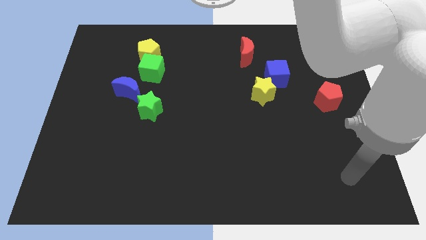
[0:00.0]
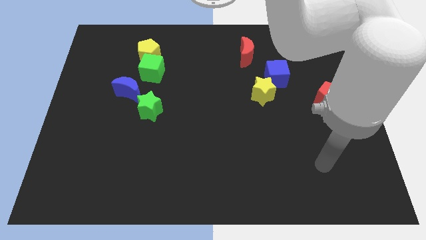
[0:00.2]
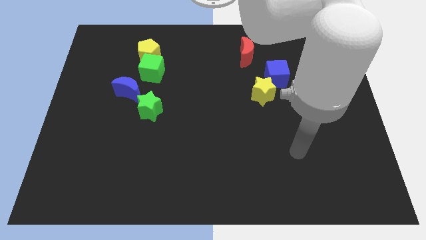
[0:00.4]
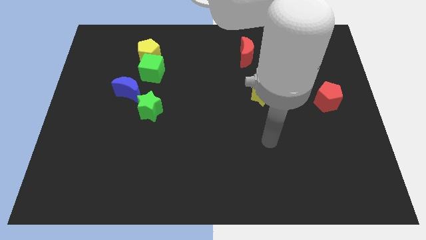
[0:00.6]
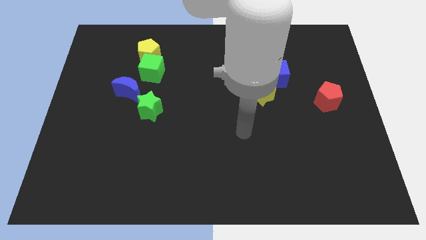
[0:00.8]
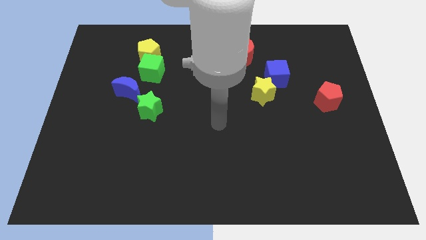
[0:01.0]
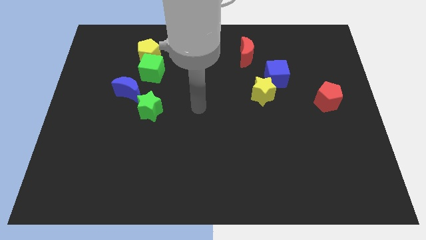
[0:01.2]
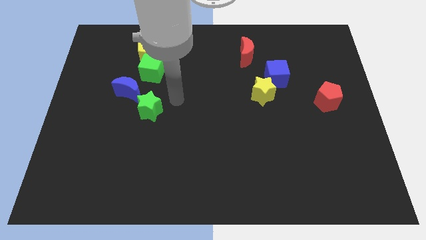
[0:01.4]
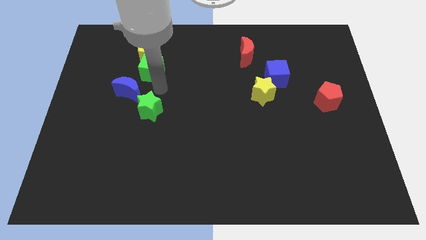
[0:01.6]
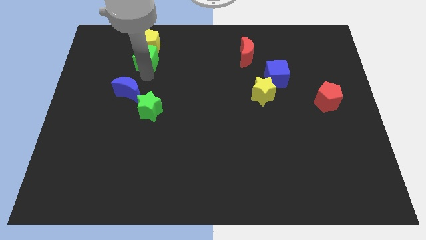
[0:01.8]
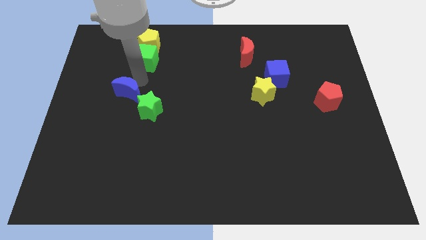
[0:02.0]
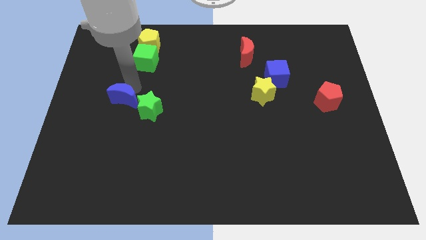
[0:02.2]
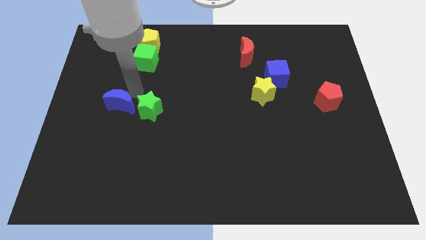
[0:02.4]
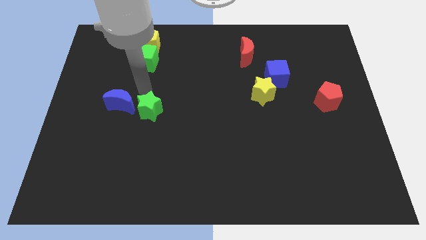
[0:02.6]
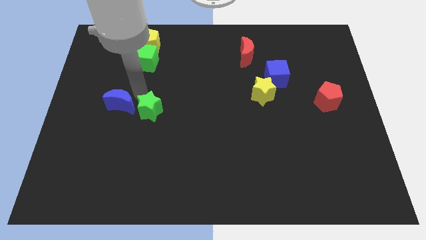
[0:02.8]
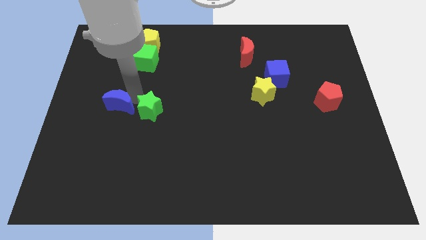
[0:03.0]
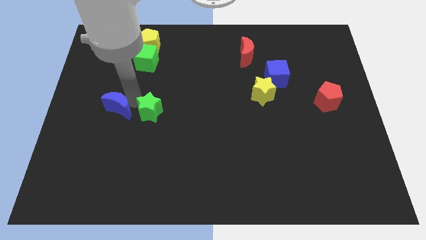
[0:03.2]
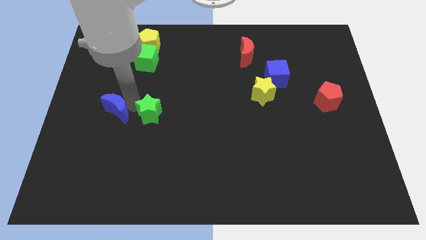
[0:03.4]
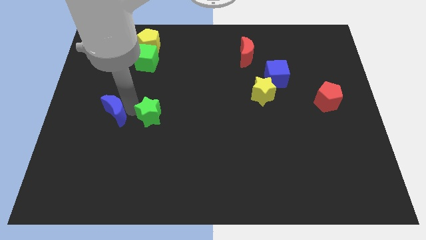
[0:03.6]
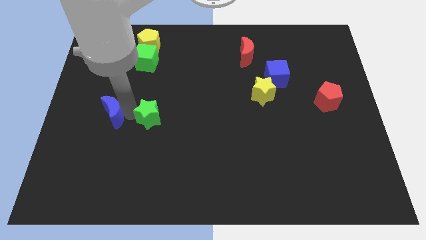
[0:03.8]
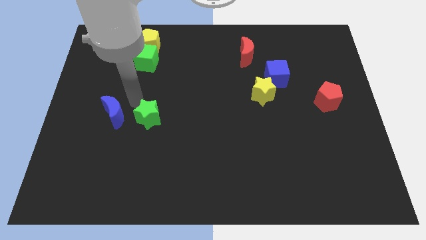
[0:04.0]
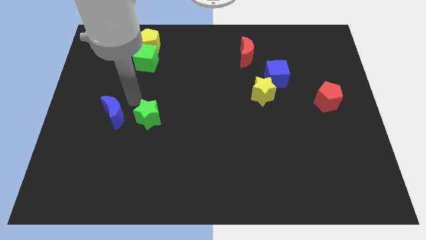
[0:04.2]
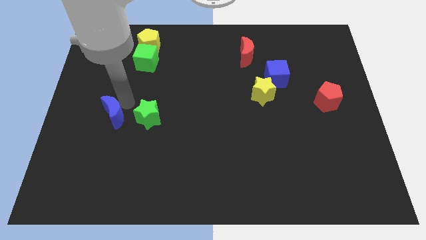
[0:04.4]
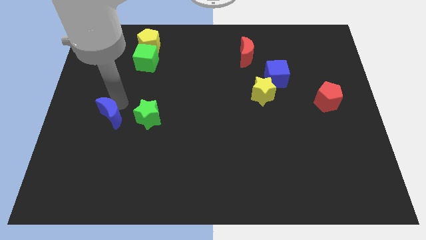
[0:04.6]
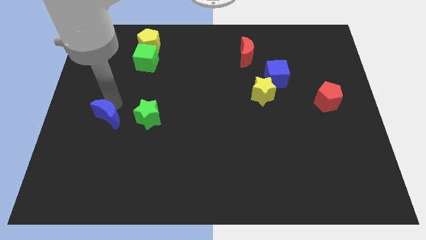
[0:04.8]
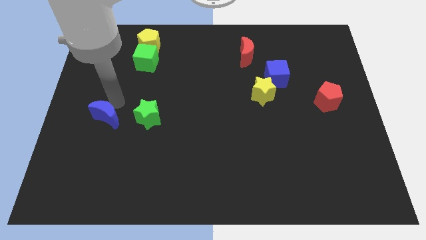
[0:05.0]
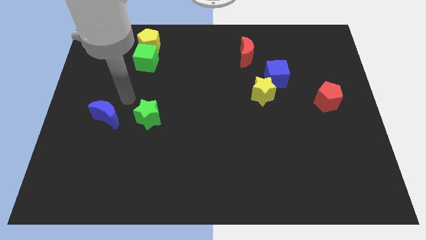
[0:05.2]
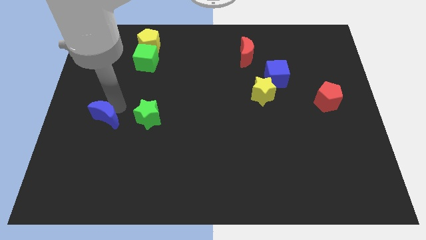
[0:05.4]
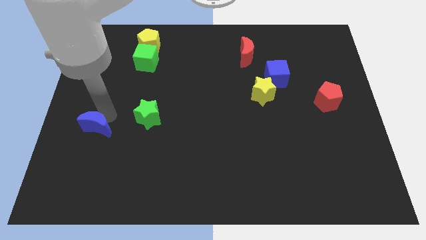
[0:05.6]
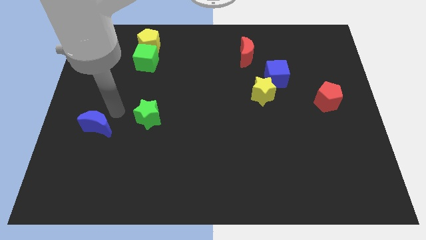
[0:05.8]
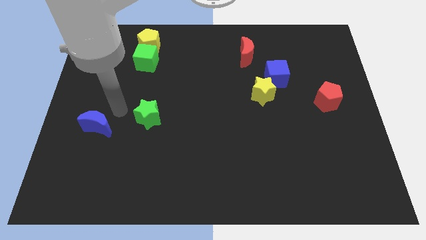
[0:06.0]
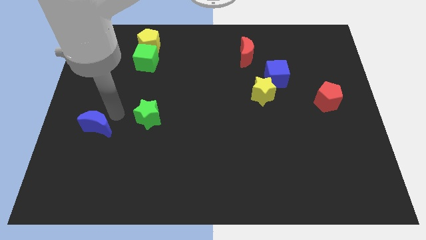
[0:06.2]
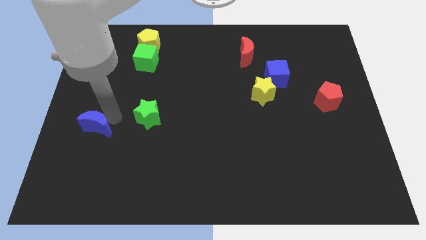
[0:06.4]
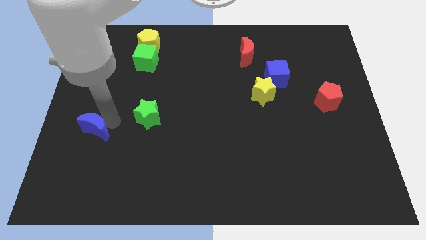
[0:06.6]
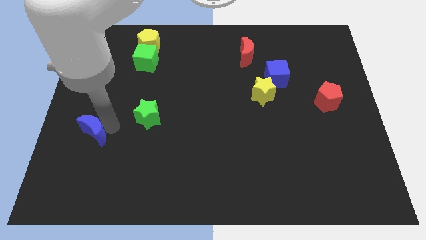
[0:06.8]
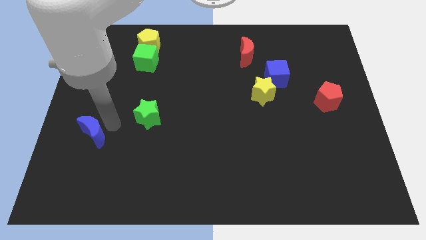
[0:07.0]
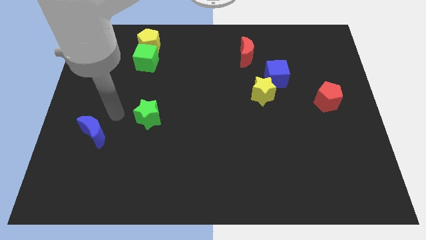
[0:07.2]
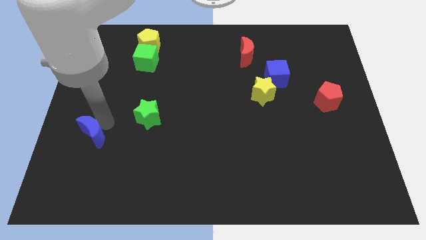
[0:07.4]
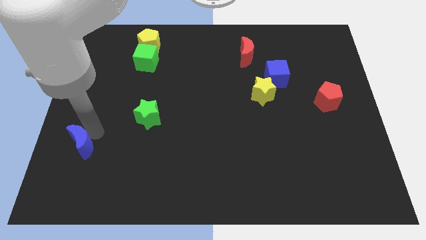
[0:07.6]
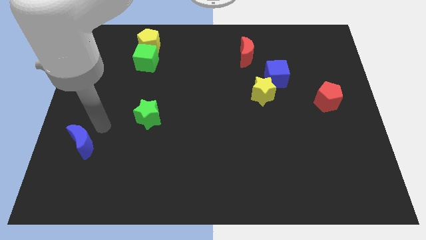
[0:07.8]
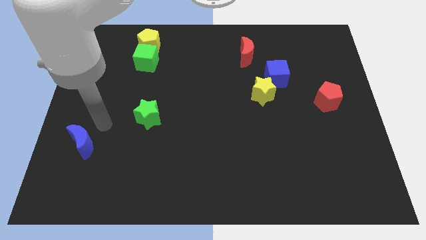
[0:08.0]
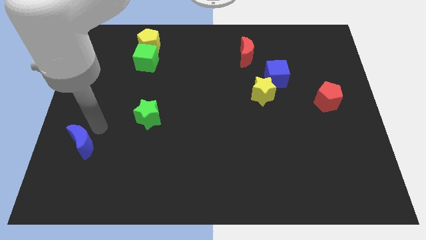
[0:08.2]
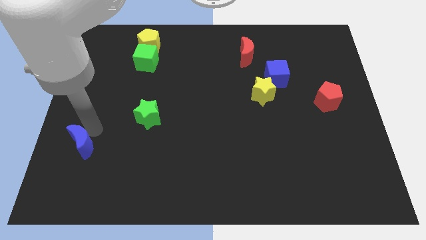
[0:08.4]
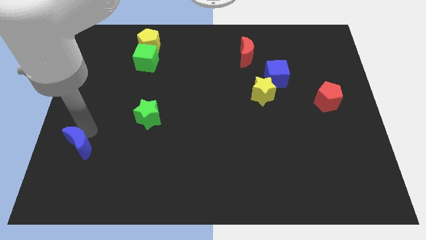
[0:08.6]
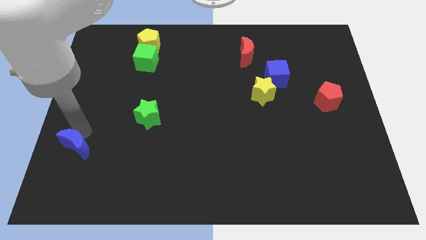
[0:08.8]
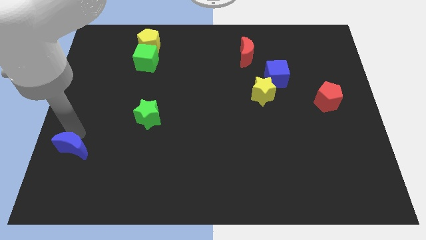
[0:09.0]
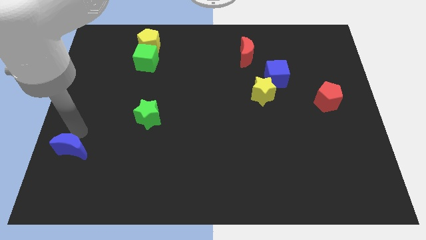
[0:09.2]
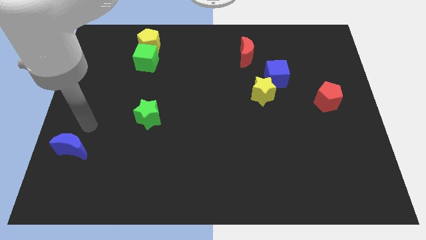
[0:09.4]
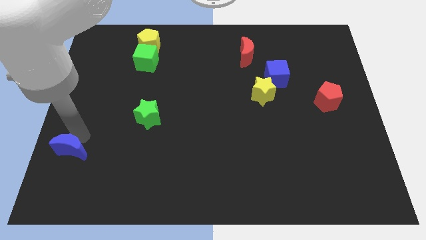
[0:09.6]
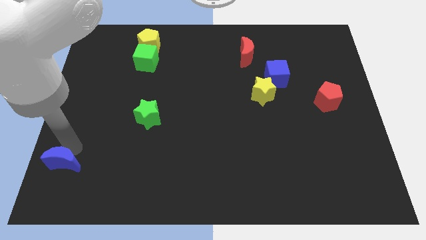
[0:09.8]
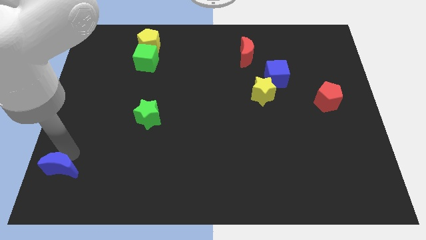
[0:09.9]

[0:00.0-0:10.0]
move the blue moon to the bottom left corner

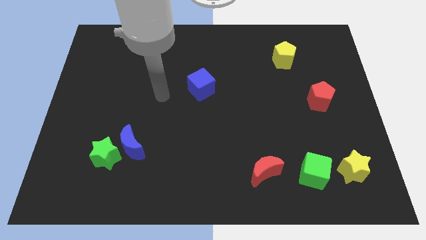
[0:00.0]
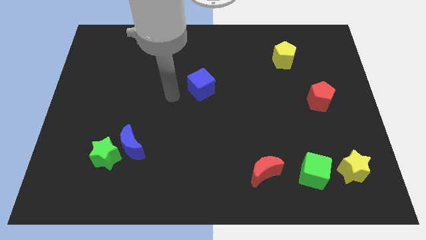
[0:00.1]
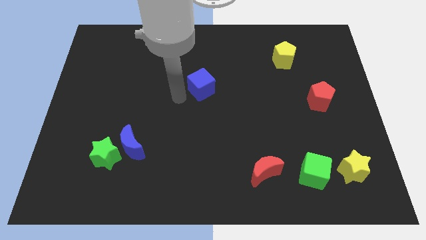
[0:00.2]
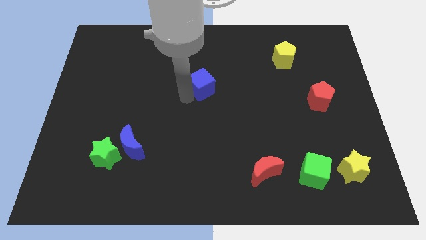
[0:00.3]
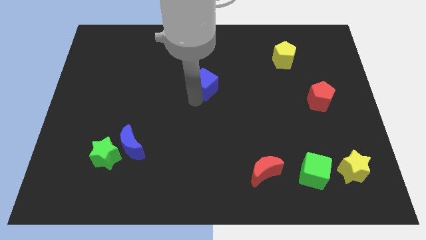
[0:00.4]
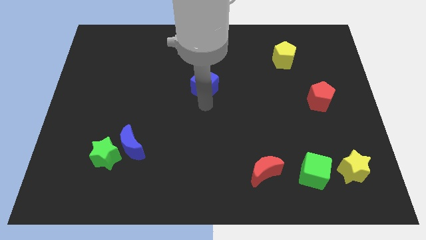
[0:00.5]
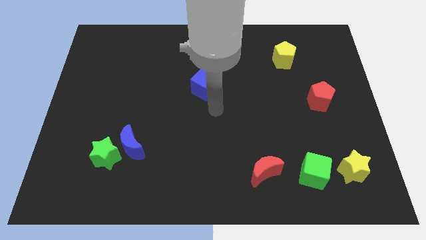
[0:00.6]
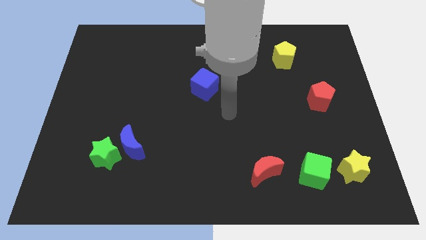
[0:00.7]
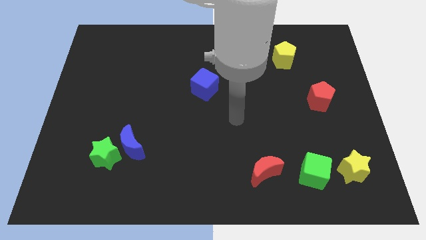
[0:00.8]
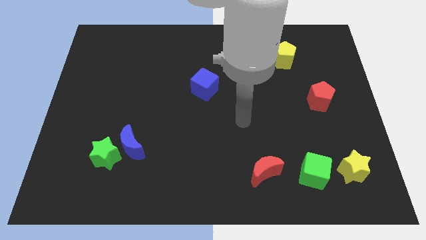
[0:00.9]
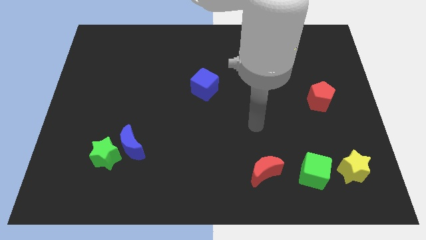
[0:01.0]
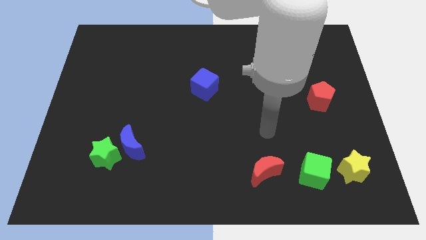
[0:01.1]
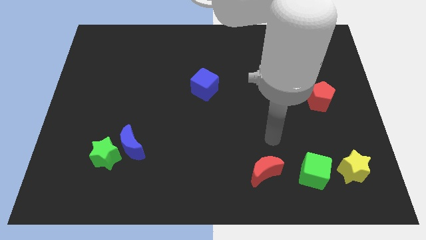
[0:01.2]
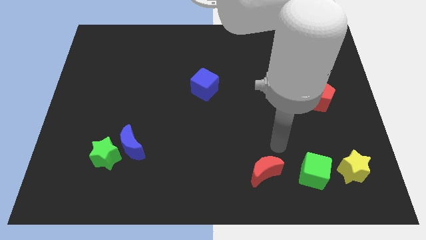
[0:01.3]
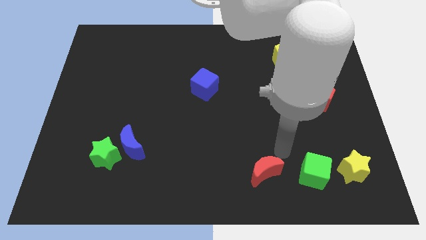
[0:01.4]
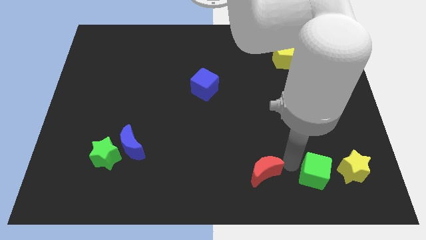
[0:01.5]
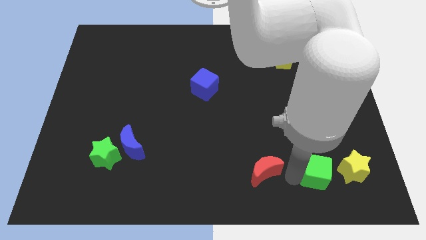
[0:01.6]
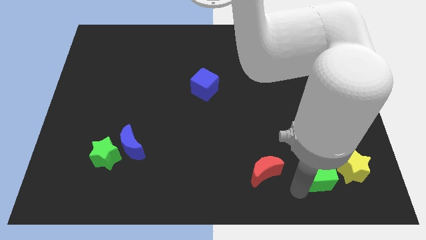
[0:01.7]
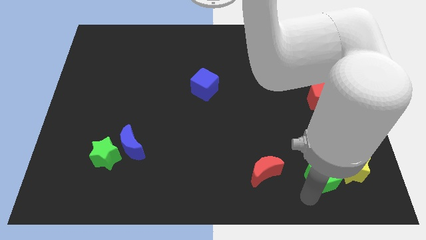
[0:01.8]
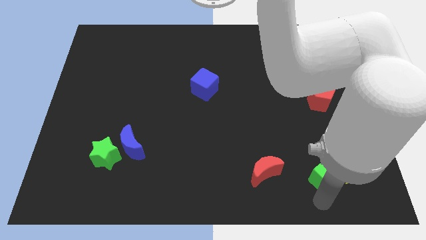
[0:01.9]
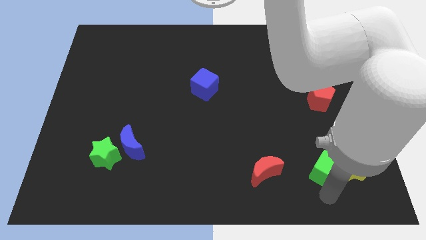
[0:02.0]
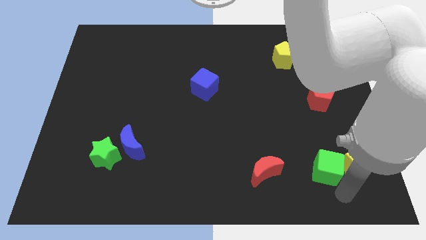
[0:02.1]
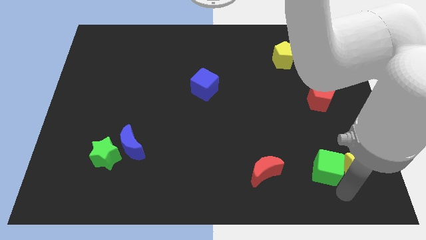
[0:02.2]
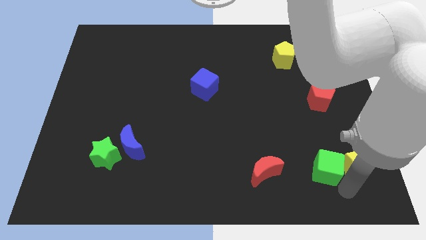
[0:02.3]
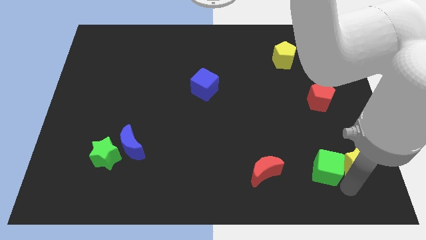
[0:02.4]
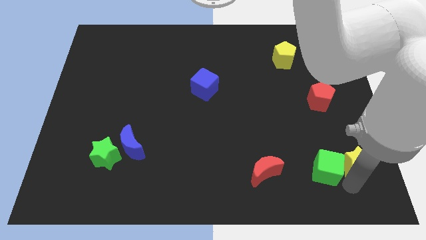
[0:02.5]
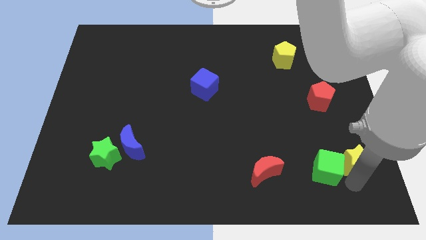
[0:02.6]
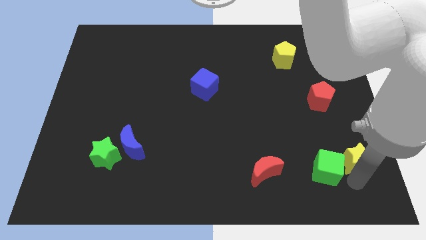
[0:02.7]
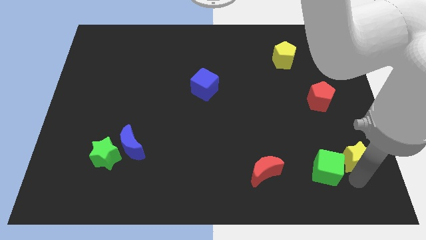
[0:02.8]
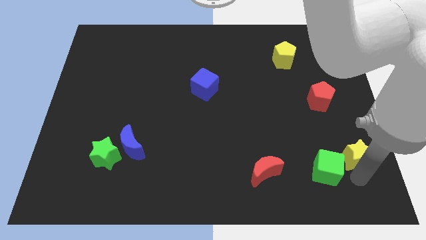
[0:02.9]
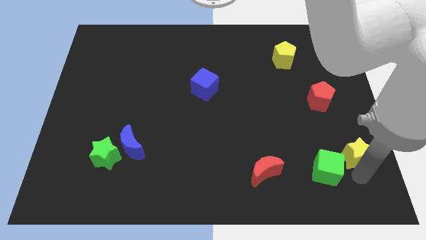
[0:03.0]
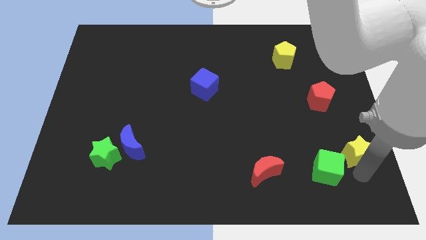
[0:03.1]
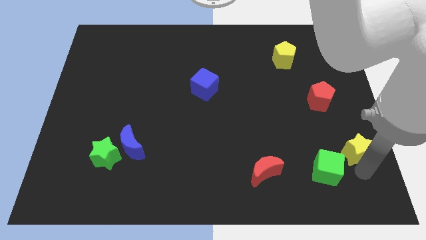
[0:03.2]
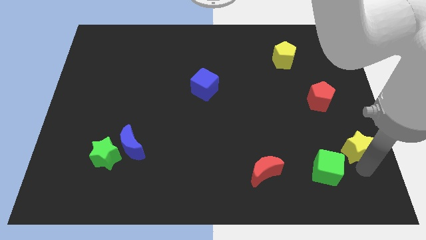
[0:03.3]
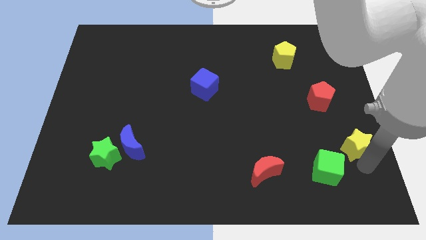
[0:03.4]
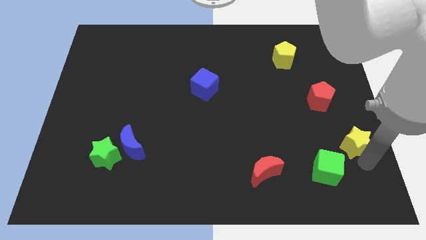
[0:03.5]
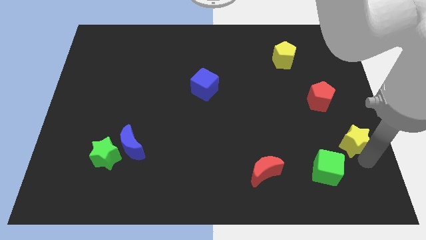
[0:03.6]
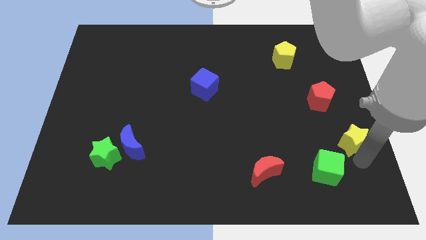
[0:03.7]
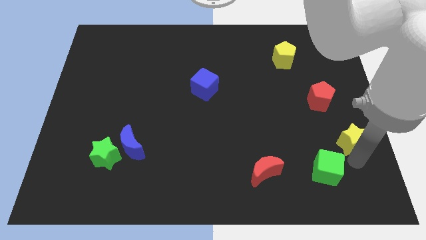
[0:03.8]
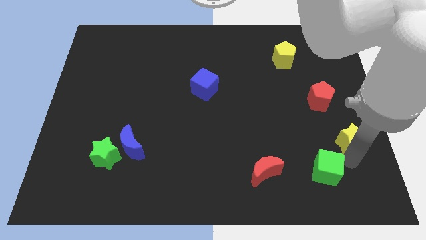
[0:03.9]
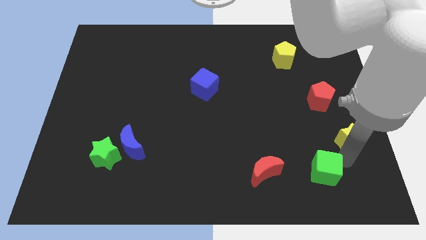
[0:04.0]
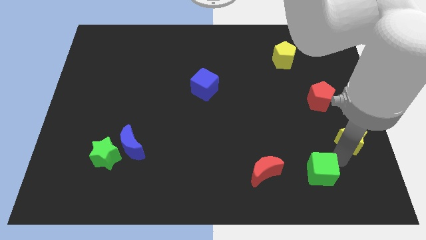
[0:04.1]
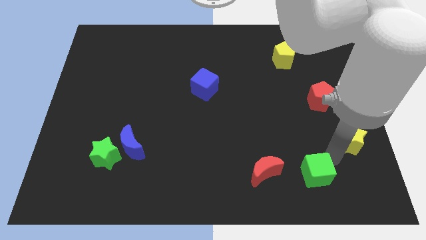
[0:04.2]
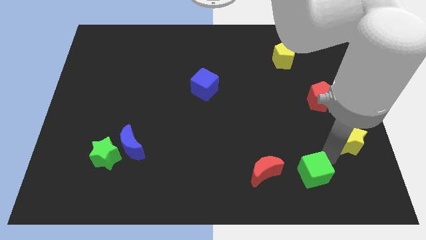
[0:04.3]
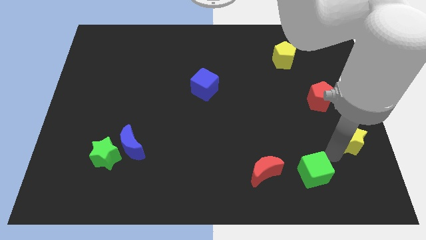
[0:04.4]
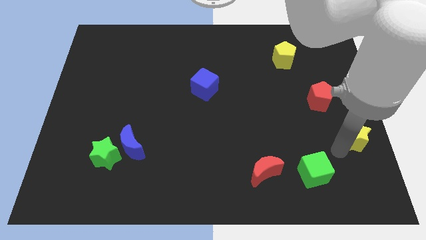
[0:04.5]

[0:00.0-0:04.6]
push the yellow star to the center right
